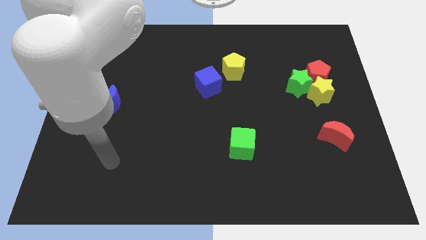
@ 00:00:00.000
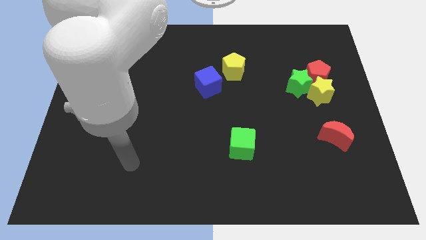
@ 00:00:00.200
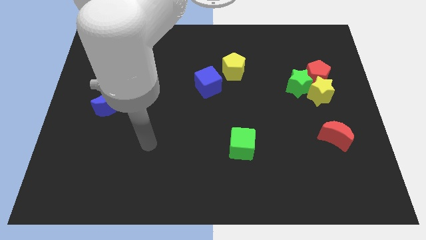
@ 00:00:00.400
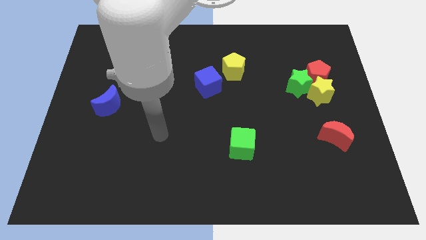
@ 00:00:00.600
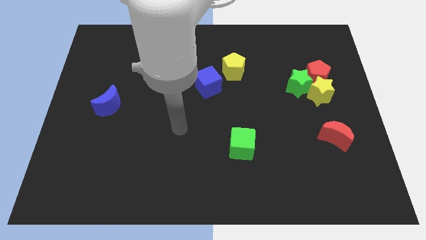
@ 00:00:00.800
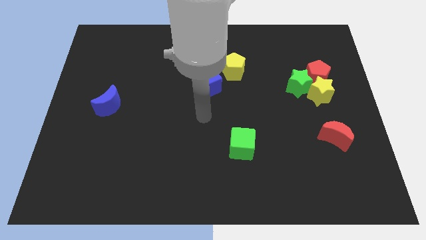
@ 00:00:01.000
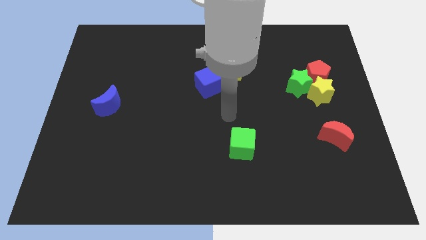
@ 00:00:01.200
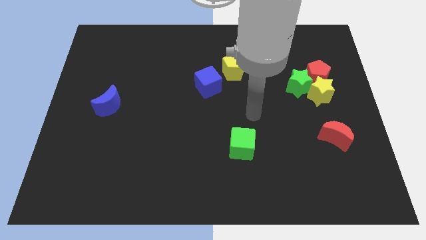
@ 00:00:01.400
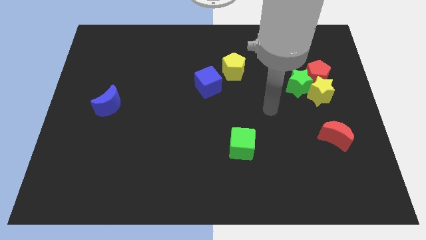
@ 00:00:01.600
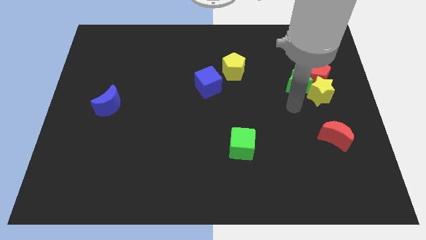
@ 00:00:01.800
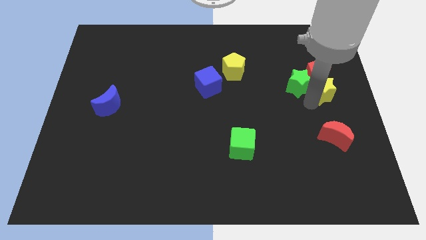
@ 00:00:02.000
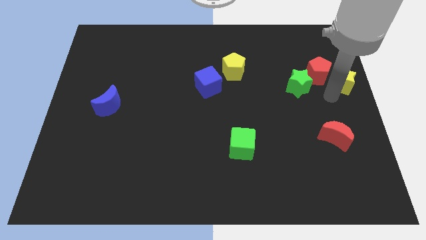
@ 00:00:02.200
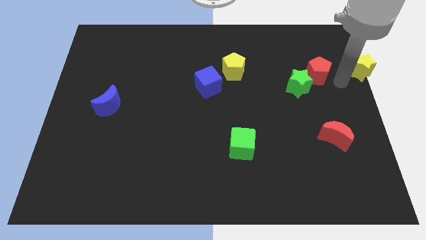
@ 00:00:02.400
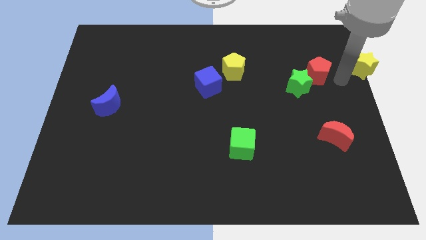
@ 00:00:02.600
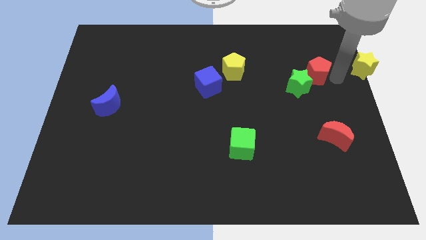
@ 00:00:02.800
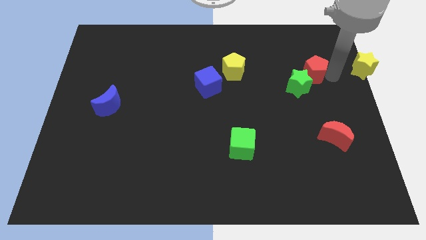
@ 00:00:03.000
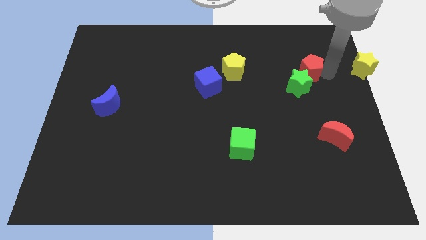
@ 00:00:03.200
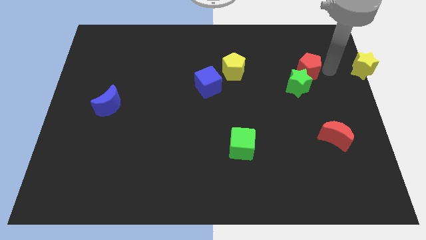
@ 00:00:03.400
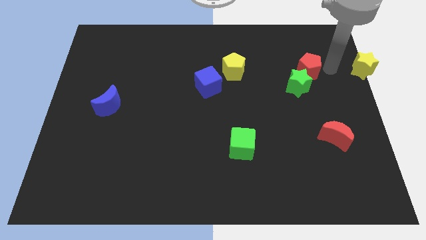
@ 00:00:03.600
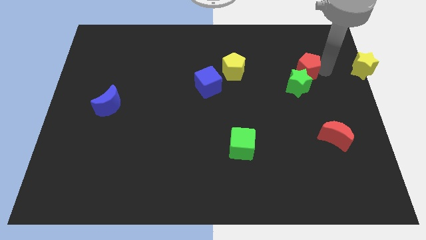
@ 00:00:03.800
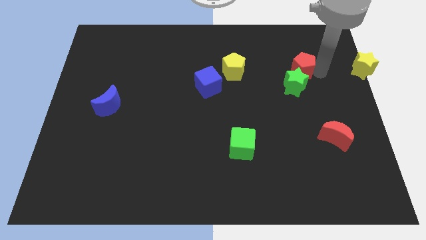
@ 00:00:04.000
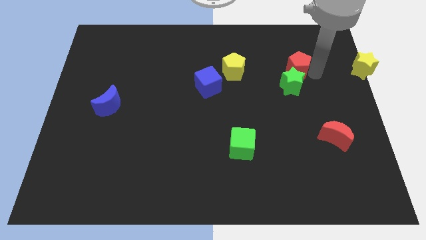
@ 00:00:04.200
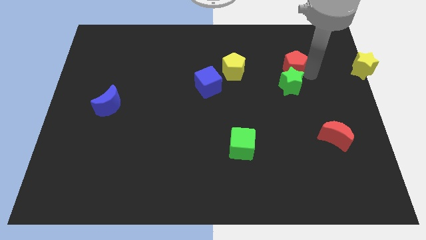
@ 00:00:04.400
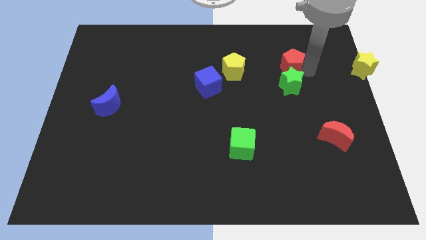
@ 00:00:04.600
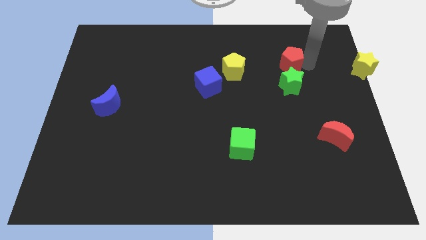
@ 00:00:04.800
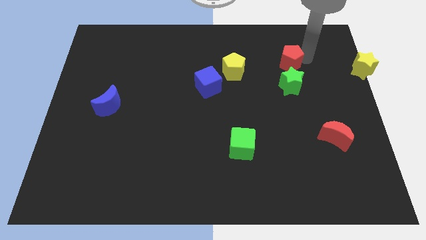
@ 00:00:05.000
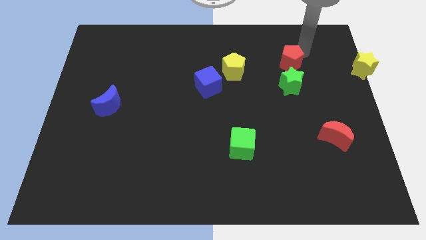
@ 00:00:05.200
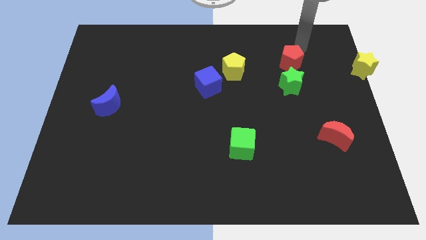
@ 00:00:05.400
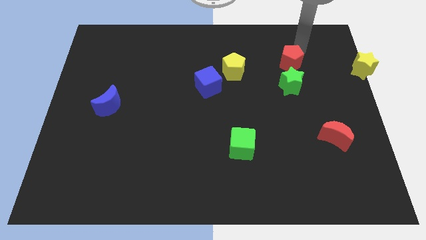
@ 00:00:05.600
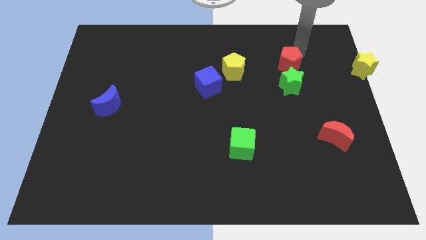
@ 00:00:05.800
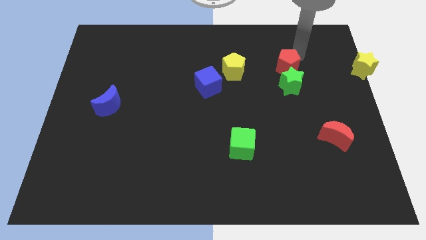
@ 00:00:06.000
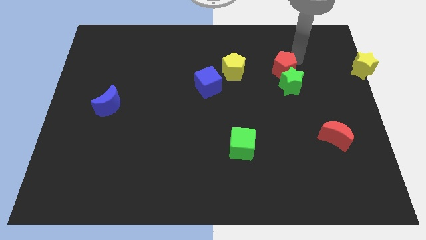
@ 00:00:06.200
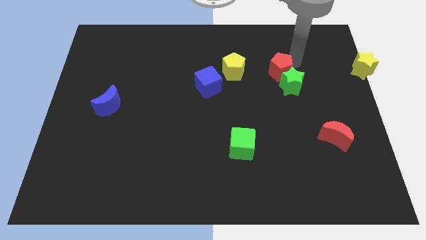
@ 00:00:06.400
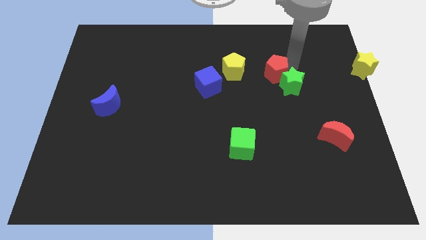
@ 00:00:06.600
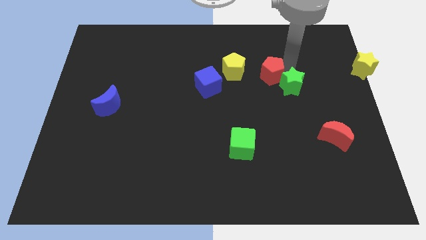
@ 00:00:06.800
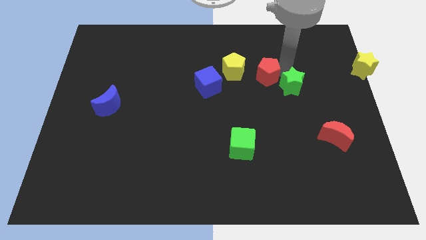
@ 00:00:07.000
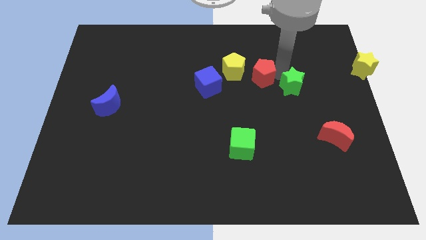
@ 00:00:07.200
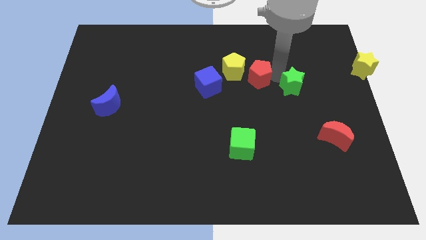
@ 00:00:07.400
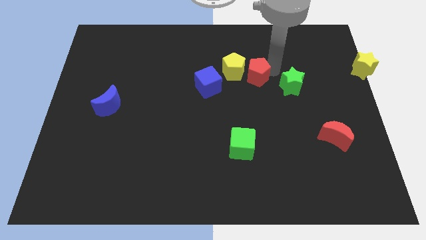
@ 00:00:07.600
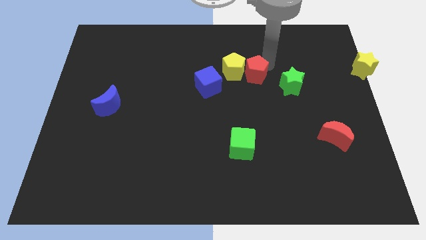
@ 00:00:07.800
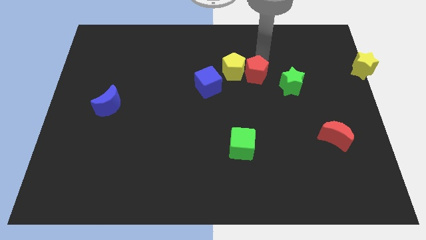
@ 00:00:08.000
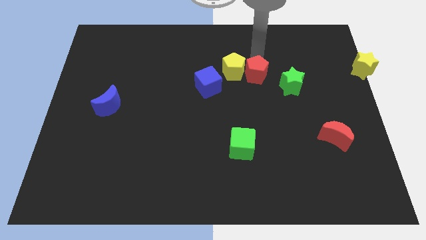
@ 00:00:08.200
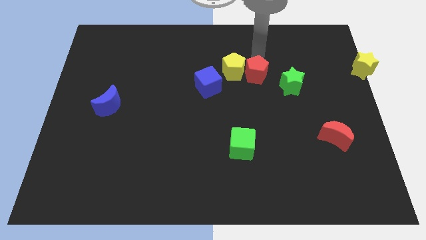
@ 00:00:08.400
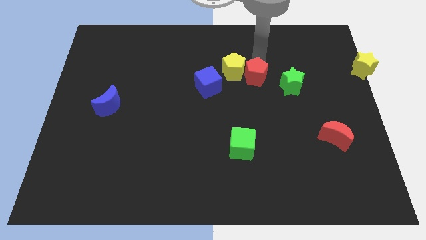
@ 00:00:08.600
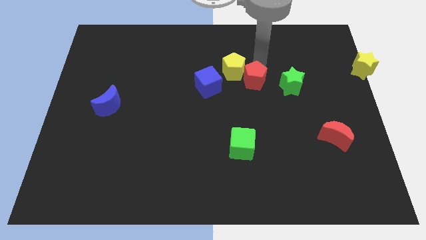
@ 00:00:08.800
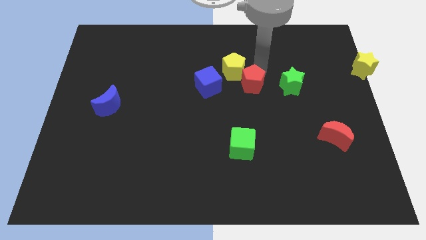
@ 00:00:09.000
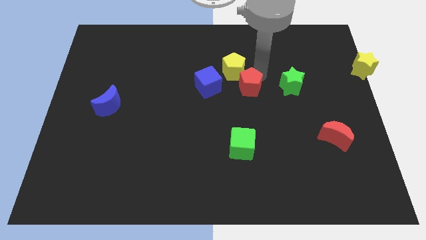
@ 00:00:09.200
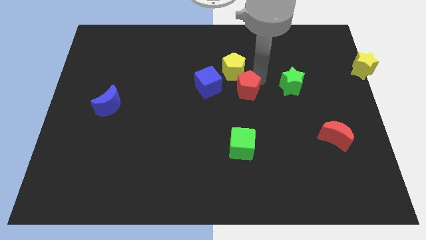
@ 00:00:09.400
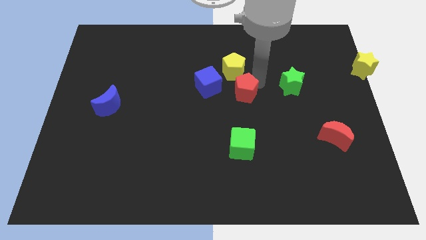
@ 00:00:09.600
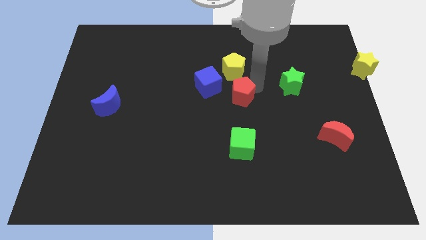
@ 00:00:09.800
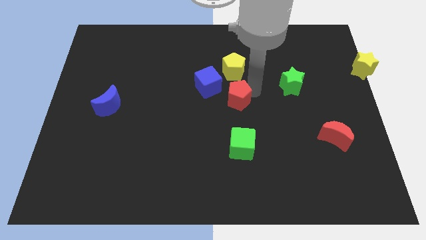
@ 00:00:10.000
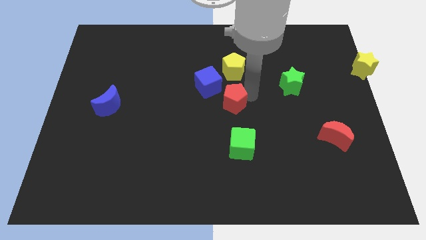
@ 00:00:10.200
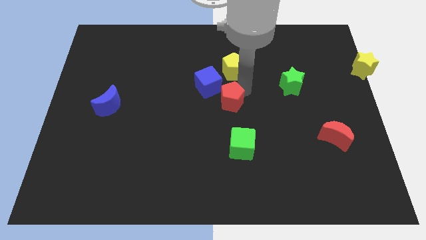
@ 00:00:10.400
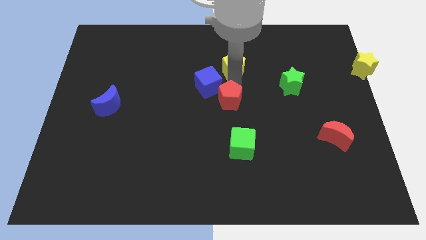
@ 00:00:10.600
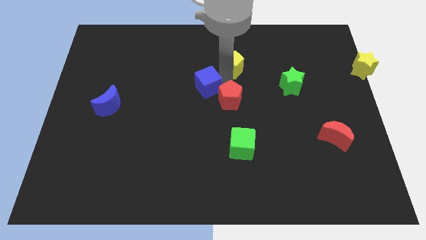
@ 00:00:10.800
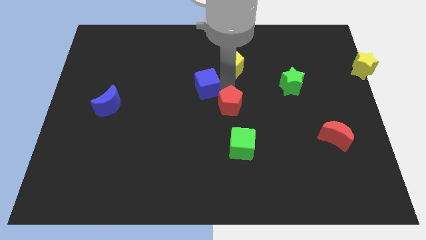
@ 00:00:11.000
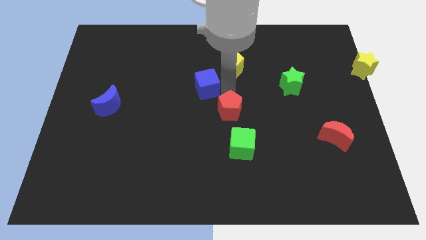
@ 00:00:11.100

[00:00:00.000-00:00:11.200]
move the red pentagon downwards and then to the left

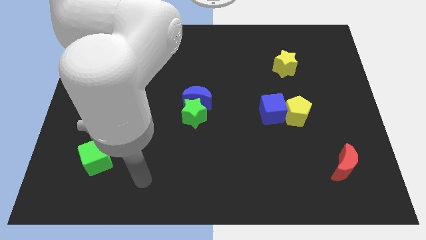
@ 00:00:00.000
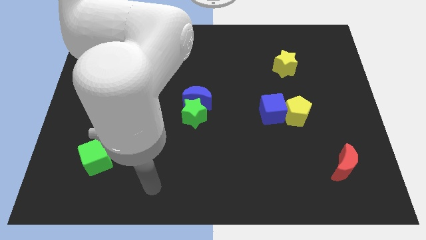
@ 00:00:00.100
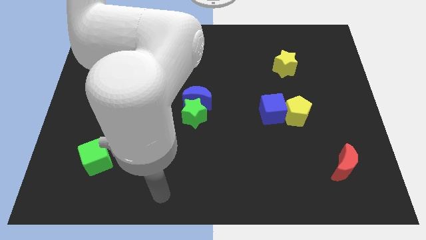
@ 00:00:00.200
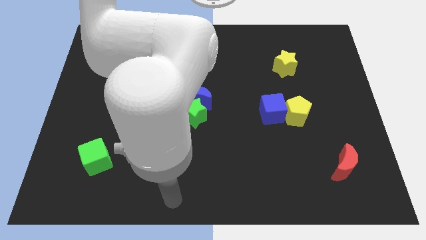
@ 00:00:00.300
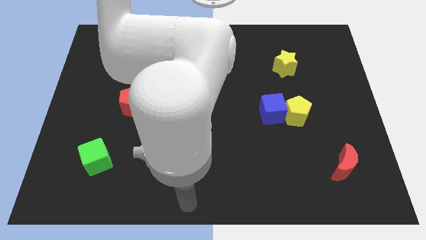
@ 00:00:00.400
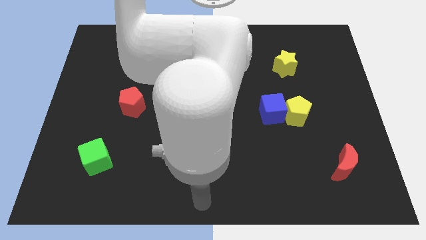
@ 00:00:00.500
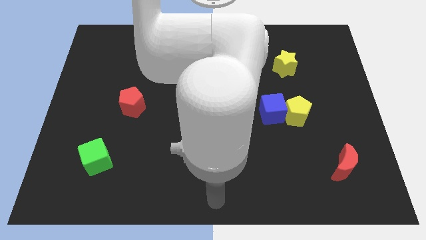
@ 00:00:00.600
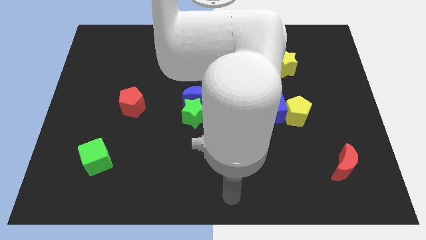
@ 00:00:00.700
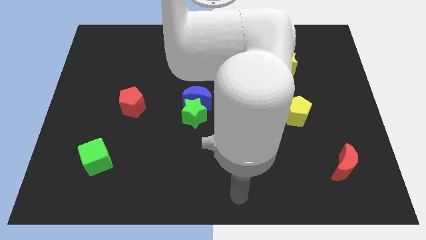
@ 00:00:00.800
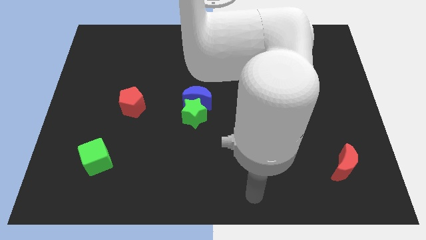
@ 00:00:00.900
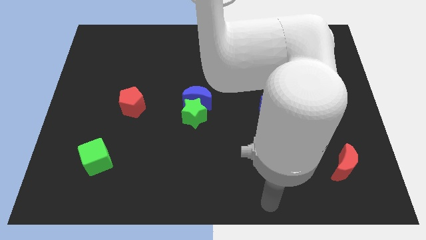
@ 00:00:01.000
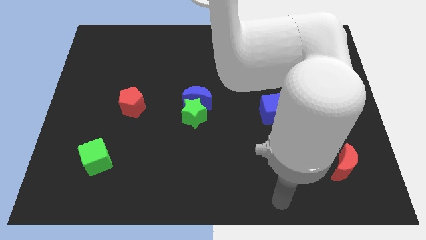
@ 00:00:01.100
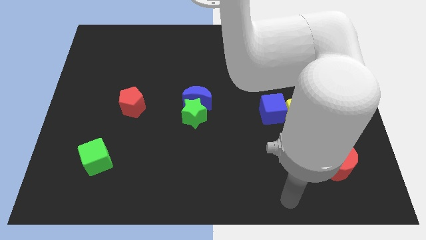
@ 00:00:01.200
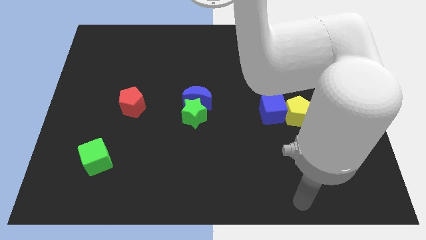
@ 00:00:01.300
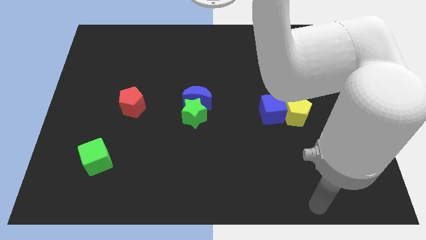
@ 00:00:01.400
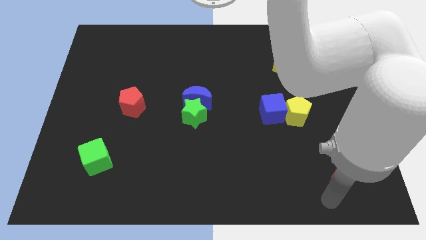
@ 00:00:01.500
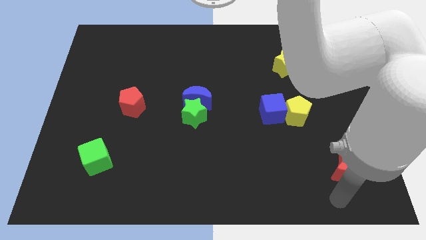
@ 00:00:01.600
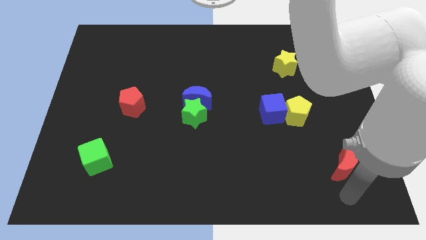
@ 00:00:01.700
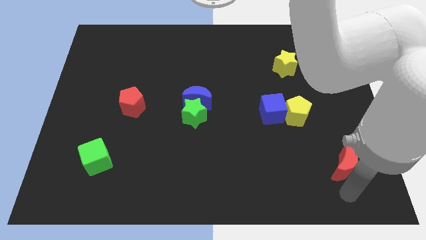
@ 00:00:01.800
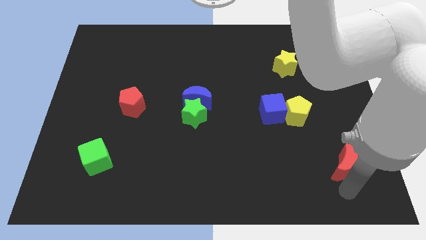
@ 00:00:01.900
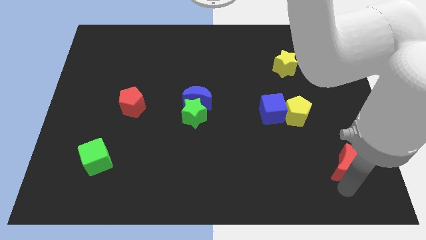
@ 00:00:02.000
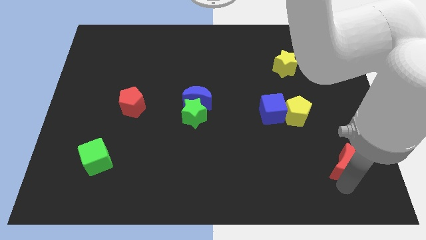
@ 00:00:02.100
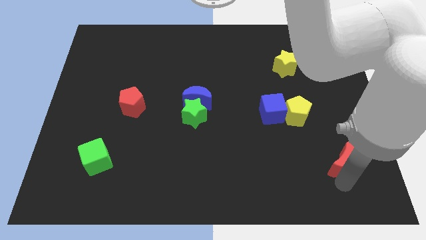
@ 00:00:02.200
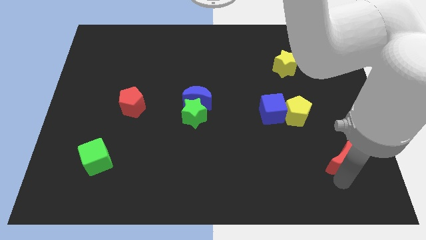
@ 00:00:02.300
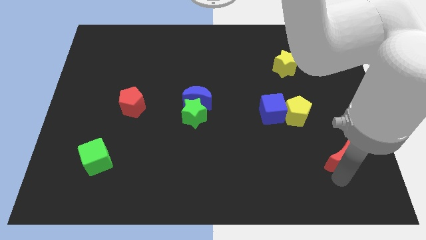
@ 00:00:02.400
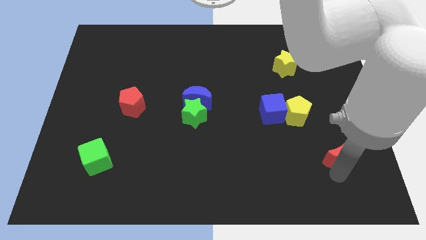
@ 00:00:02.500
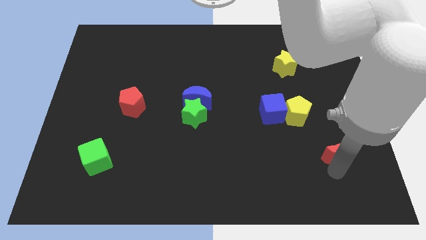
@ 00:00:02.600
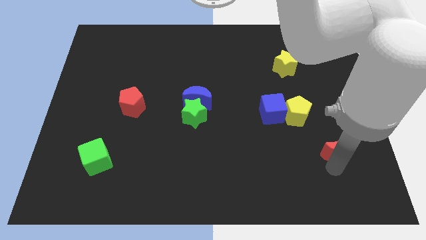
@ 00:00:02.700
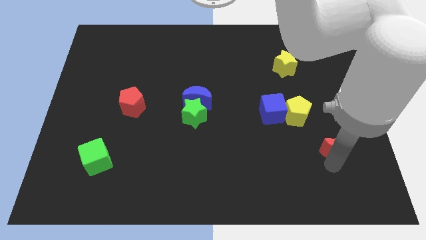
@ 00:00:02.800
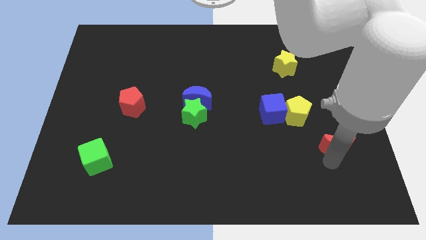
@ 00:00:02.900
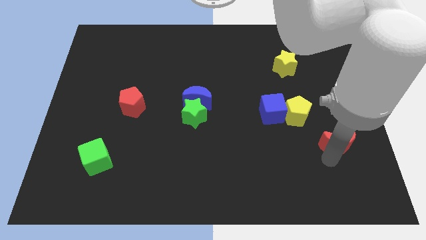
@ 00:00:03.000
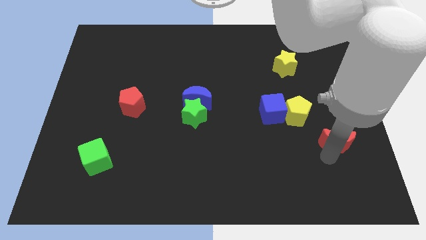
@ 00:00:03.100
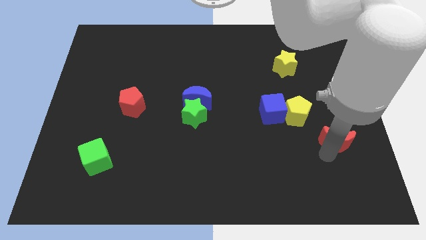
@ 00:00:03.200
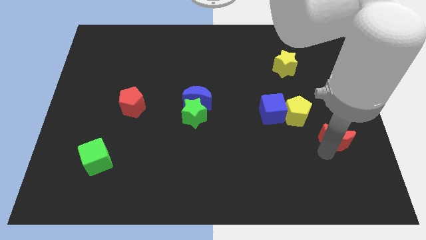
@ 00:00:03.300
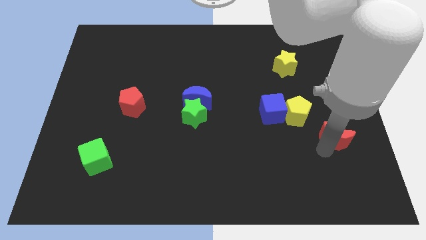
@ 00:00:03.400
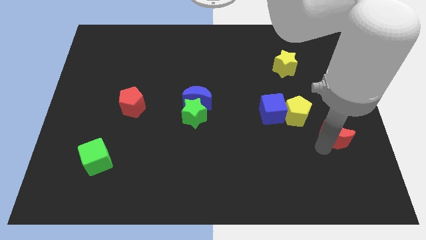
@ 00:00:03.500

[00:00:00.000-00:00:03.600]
slide the red moon up a little bit
